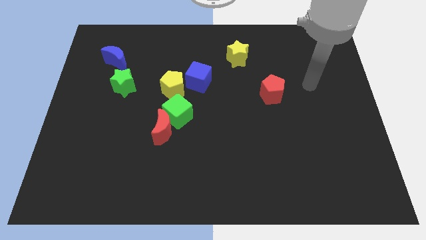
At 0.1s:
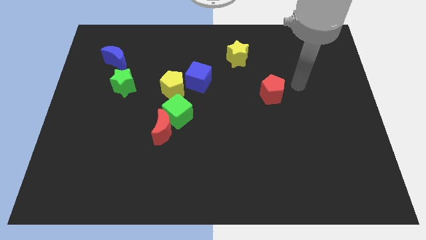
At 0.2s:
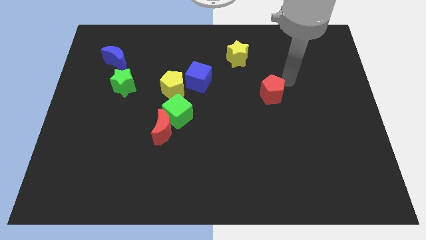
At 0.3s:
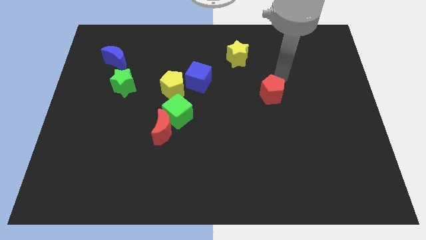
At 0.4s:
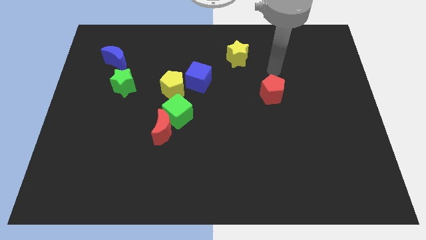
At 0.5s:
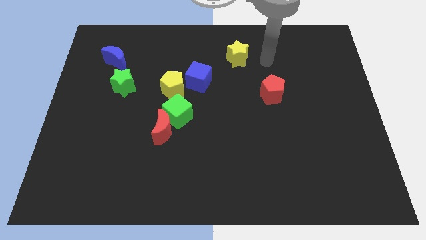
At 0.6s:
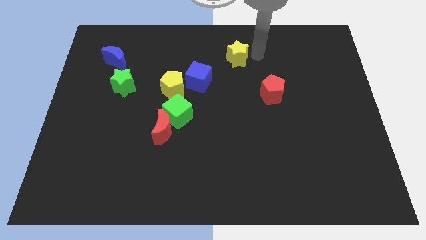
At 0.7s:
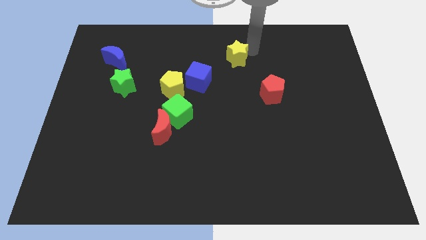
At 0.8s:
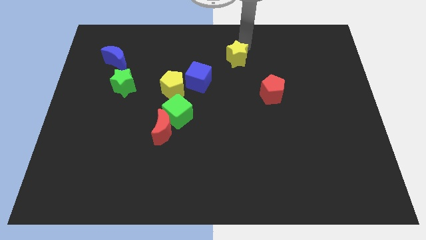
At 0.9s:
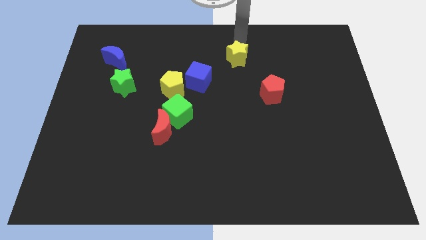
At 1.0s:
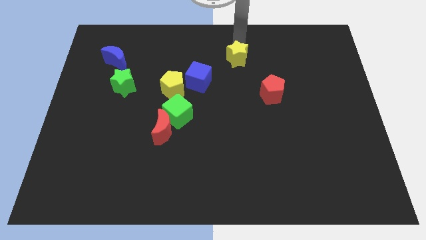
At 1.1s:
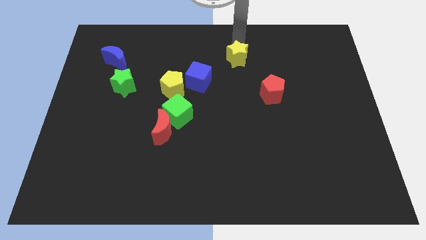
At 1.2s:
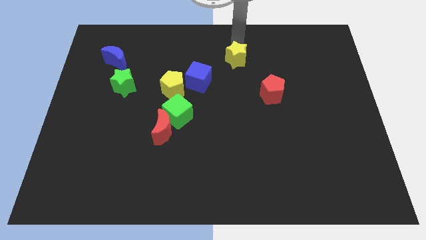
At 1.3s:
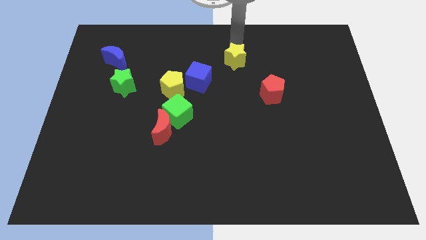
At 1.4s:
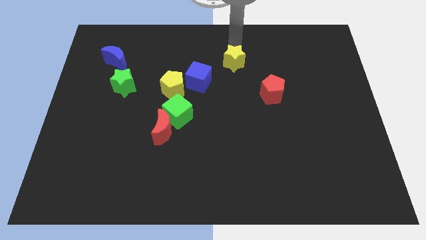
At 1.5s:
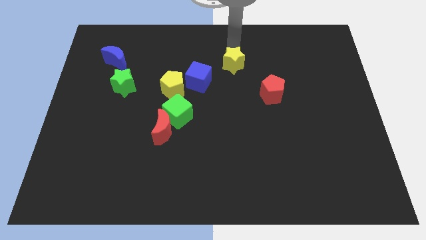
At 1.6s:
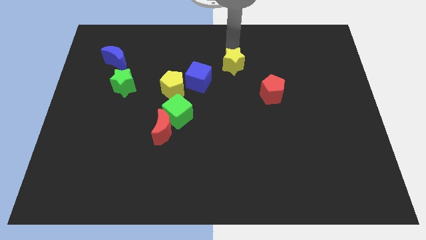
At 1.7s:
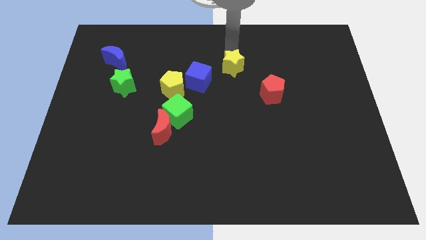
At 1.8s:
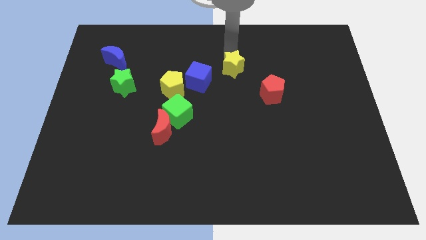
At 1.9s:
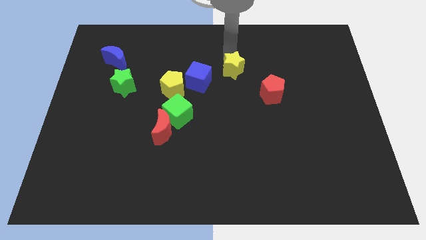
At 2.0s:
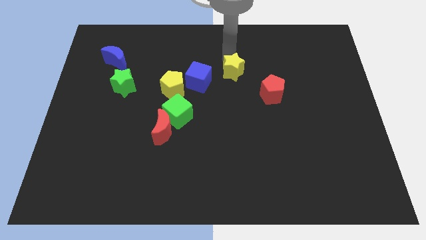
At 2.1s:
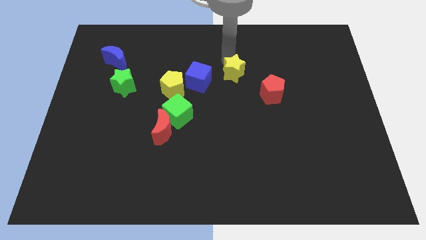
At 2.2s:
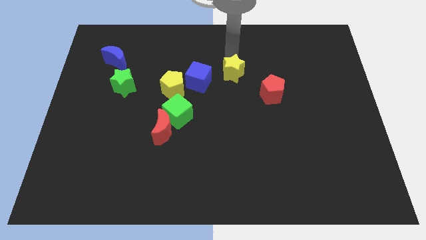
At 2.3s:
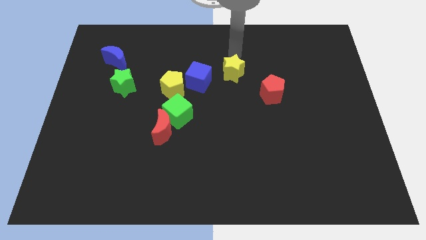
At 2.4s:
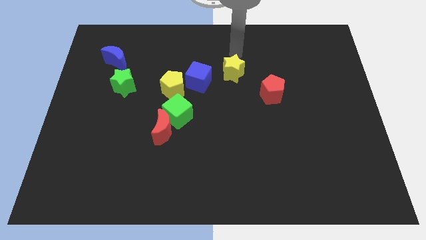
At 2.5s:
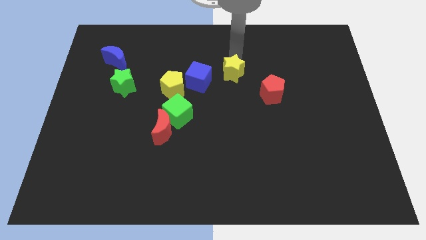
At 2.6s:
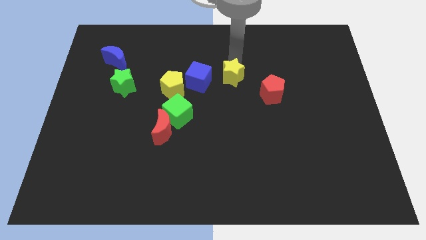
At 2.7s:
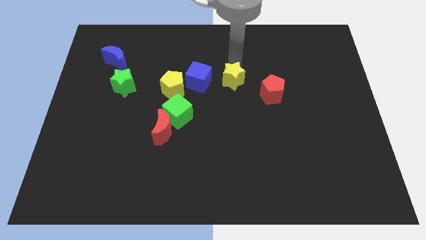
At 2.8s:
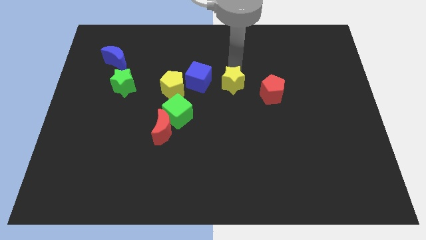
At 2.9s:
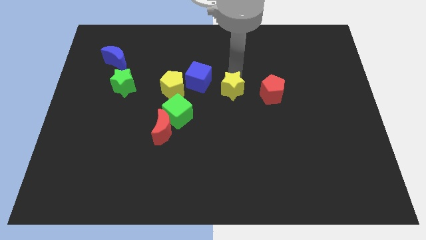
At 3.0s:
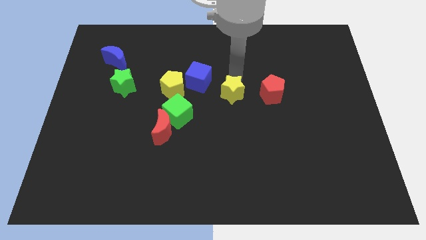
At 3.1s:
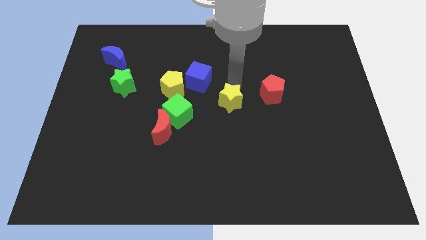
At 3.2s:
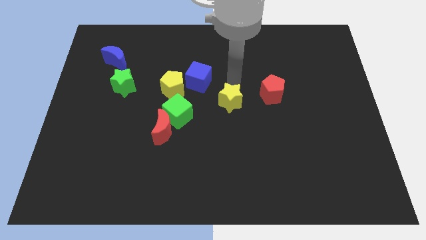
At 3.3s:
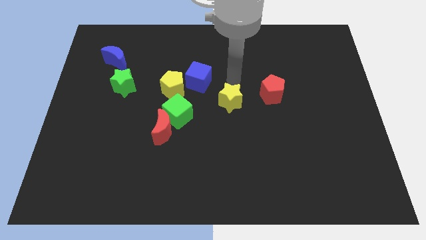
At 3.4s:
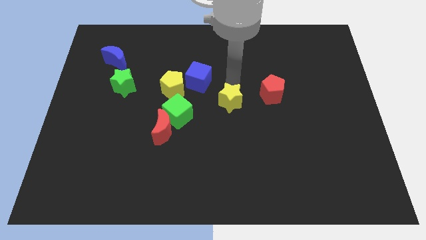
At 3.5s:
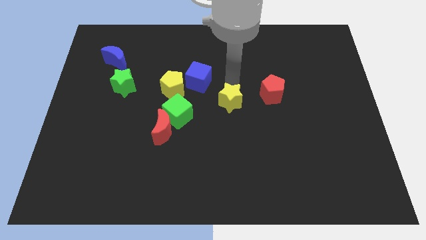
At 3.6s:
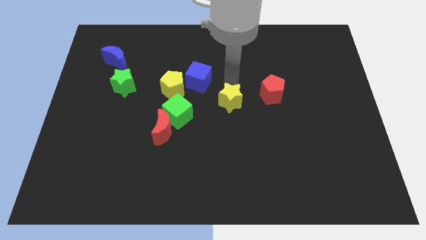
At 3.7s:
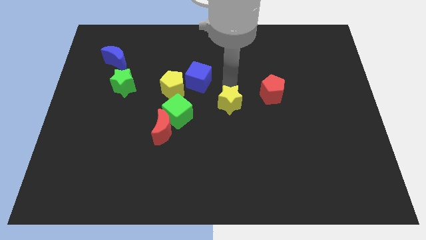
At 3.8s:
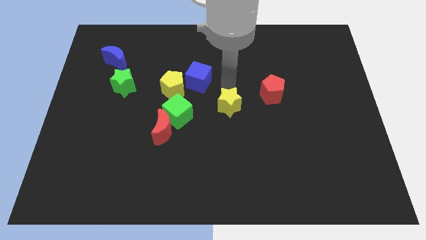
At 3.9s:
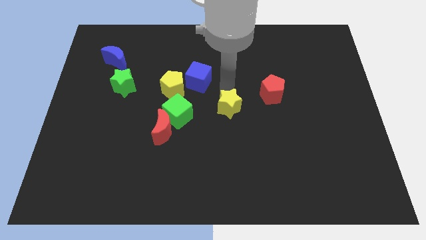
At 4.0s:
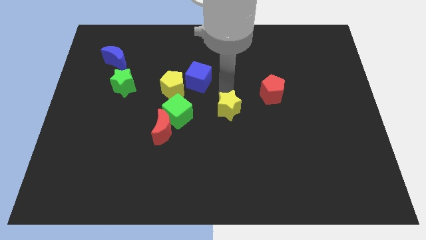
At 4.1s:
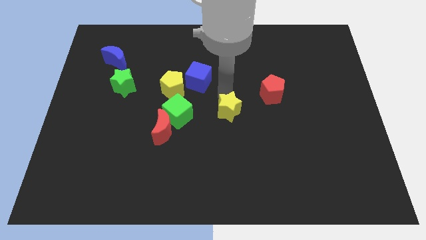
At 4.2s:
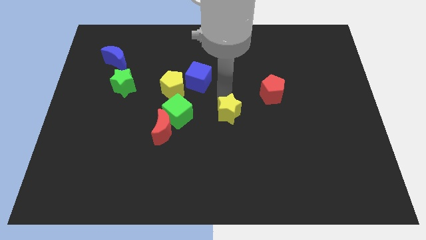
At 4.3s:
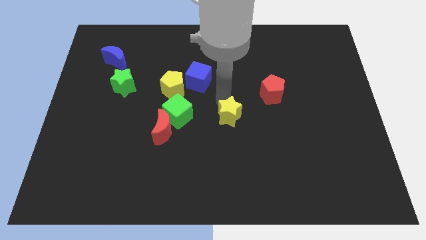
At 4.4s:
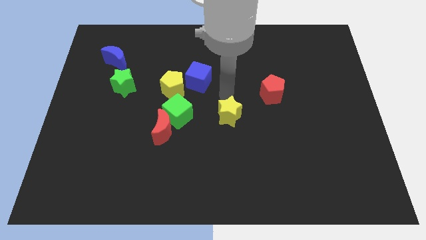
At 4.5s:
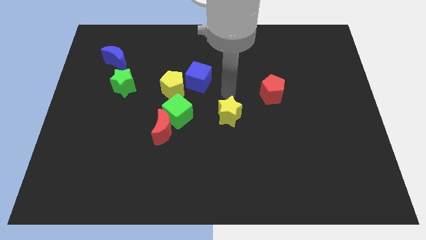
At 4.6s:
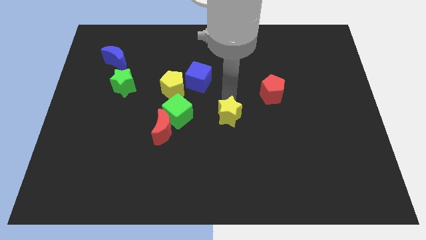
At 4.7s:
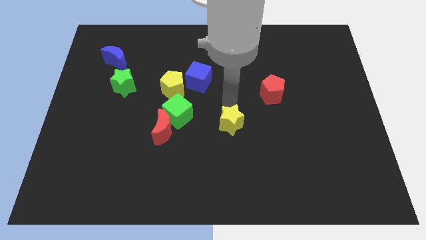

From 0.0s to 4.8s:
move the yellow star downwards

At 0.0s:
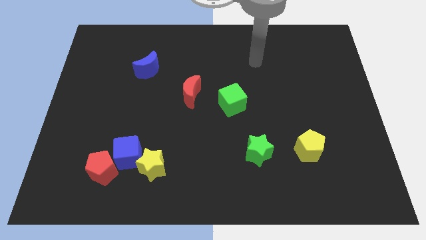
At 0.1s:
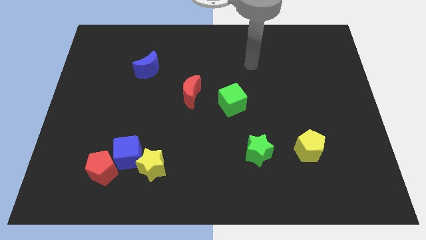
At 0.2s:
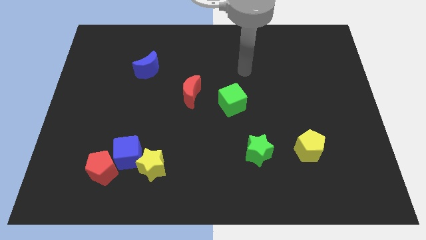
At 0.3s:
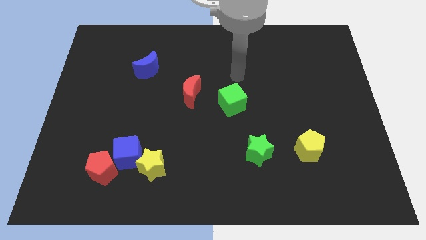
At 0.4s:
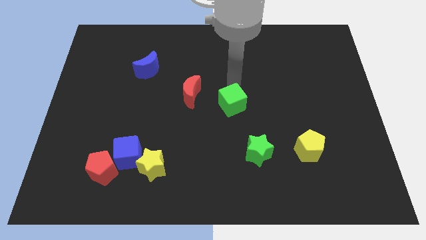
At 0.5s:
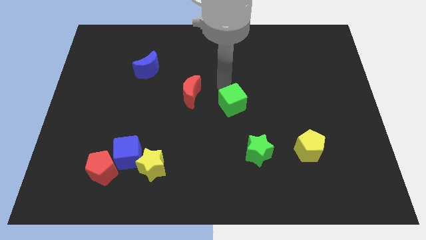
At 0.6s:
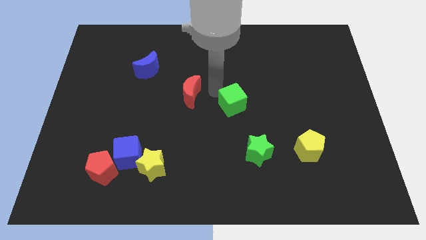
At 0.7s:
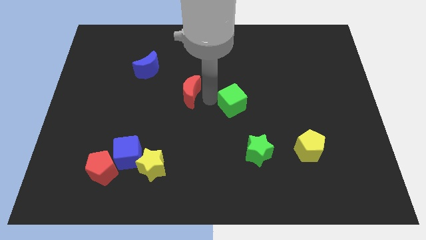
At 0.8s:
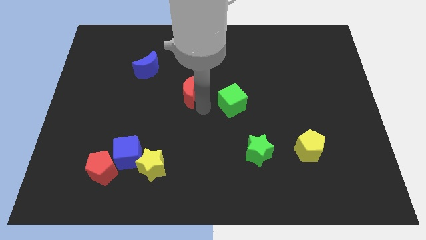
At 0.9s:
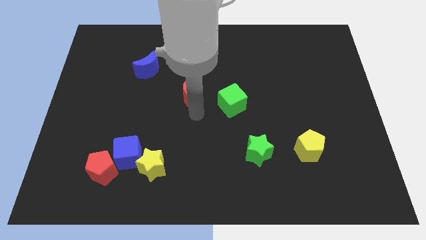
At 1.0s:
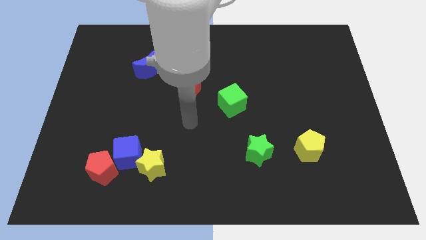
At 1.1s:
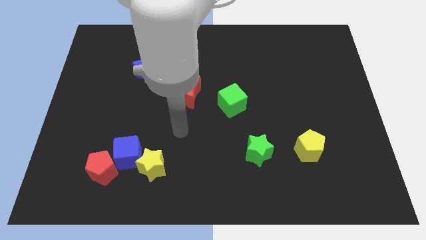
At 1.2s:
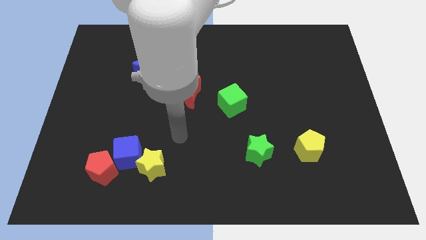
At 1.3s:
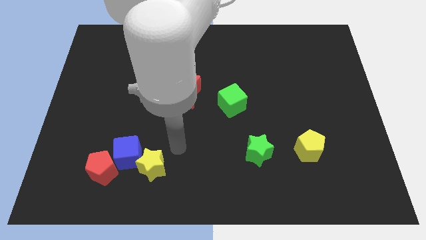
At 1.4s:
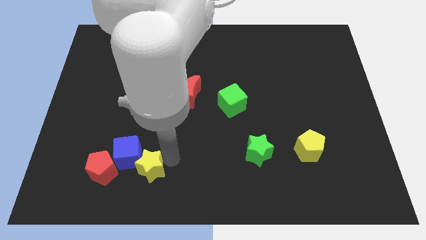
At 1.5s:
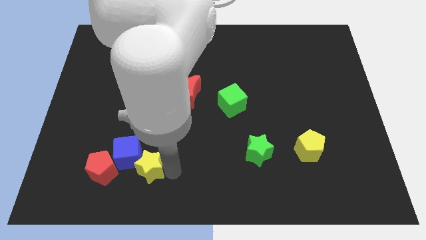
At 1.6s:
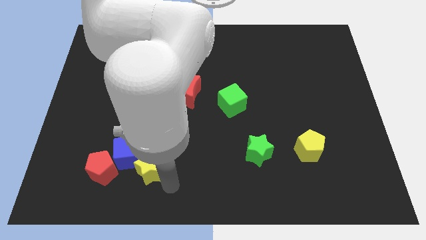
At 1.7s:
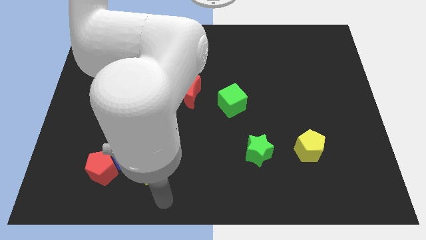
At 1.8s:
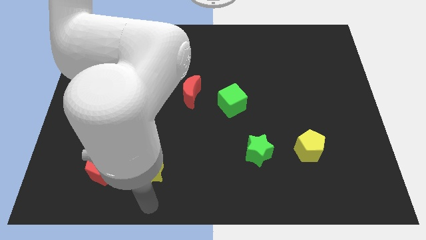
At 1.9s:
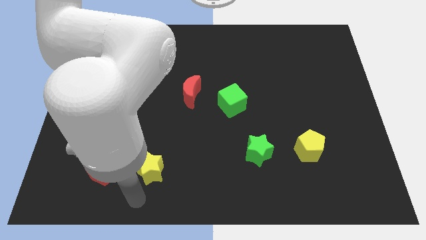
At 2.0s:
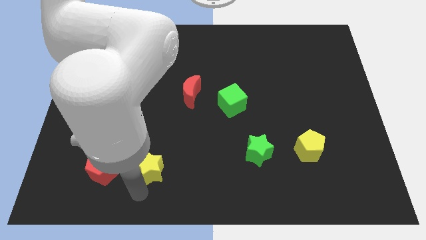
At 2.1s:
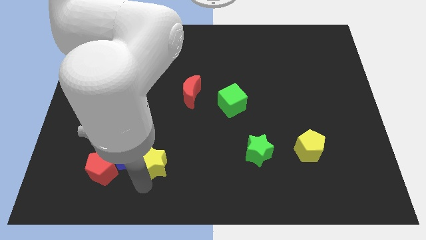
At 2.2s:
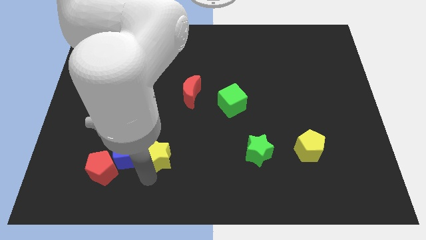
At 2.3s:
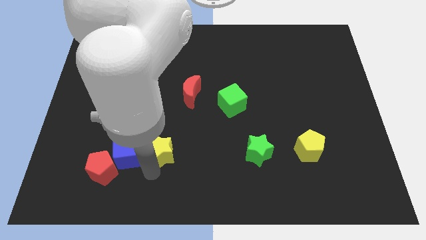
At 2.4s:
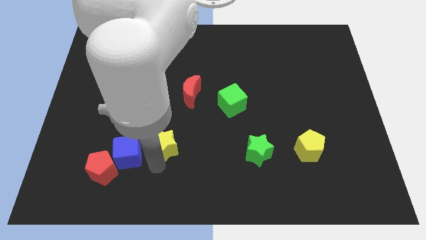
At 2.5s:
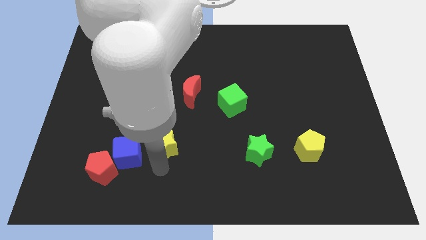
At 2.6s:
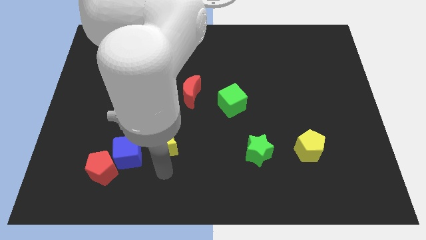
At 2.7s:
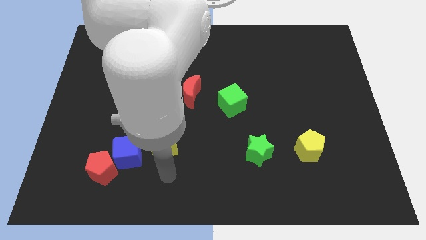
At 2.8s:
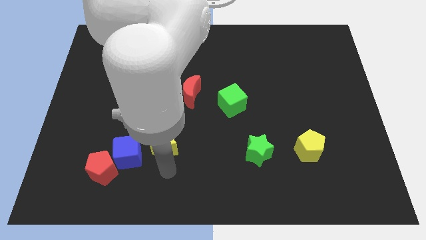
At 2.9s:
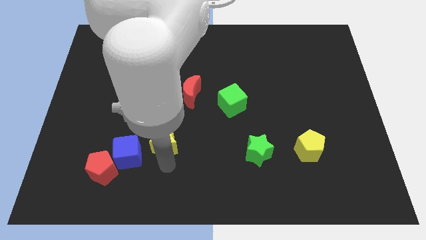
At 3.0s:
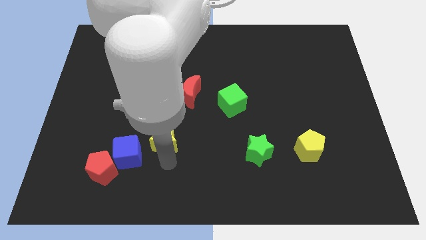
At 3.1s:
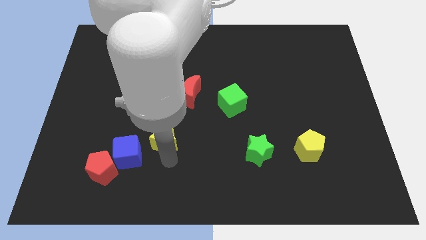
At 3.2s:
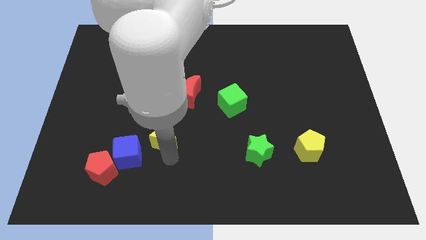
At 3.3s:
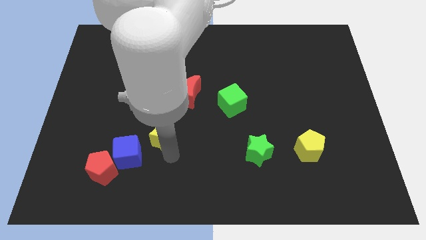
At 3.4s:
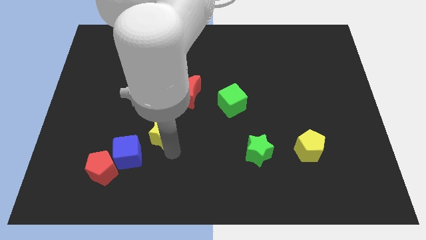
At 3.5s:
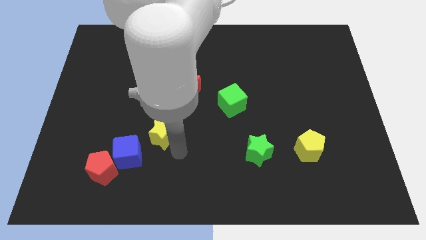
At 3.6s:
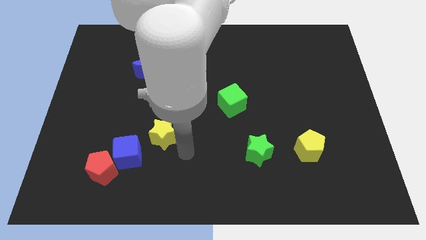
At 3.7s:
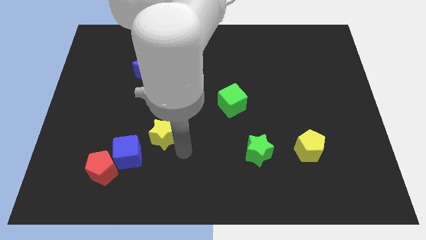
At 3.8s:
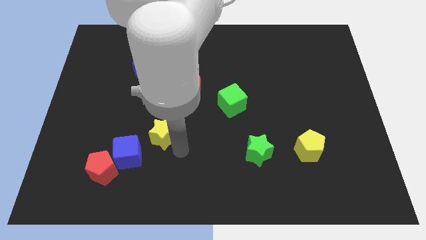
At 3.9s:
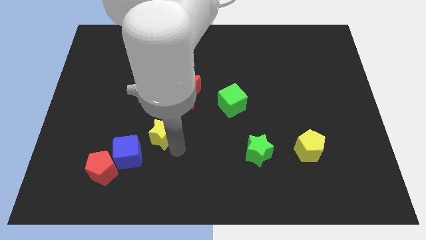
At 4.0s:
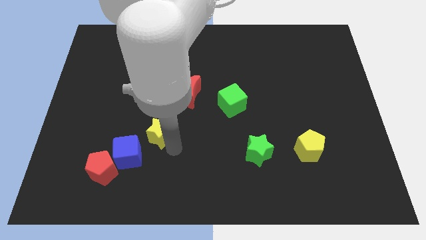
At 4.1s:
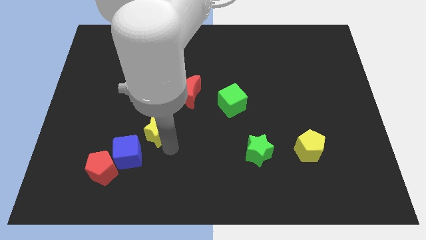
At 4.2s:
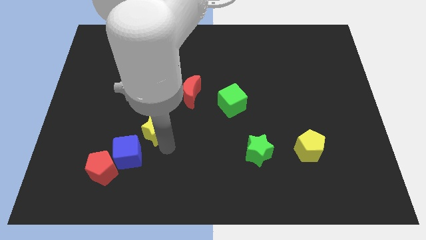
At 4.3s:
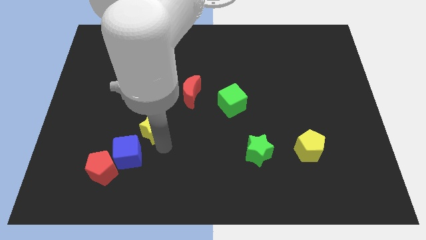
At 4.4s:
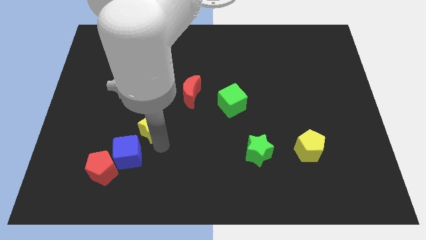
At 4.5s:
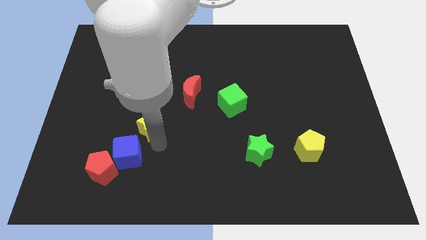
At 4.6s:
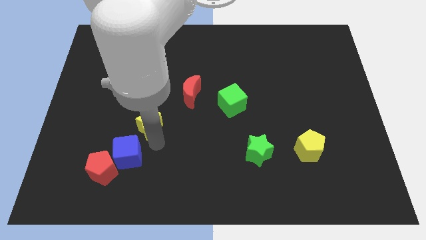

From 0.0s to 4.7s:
slide the yellow star a little bit diagonally upwards and left
